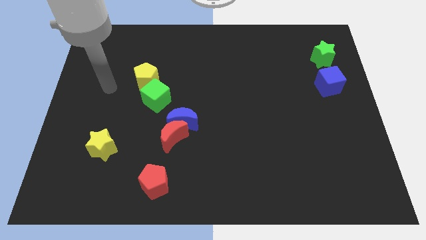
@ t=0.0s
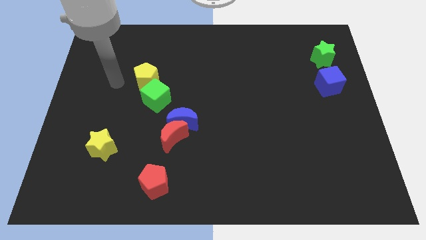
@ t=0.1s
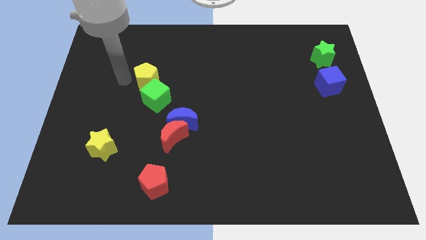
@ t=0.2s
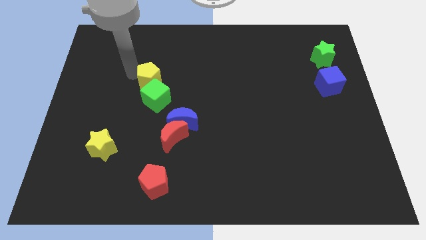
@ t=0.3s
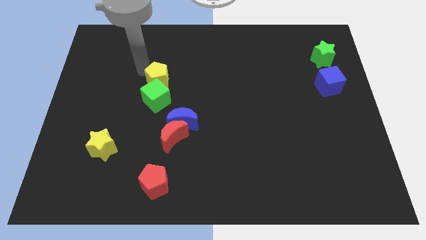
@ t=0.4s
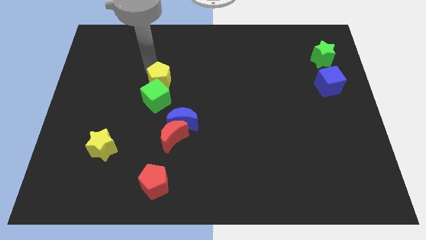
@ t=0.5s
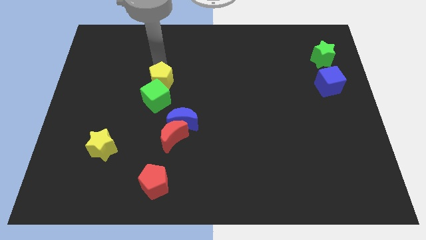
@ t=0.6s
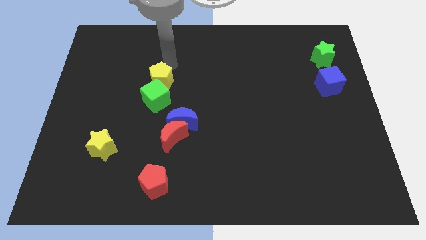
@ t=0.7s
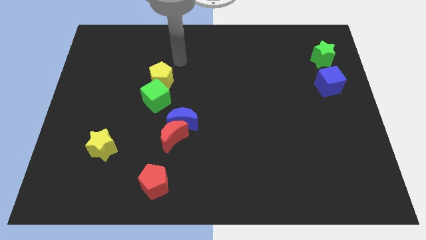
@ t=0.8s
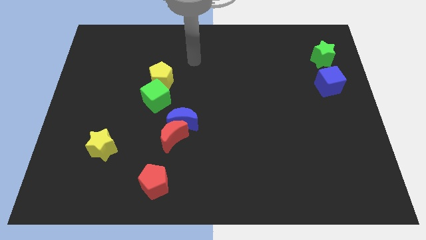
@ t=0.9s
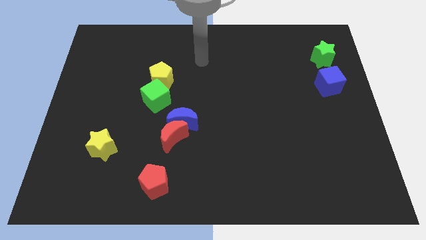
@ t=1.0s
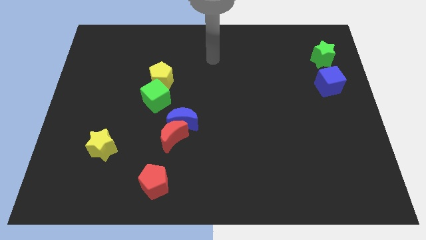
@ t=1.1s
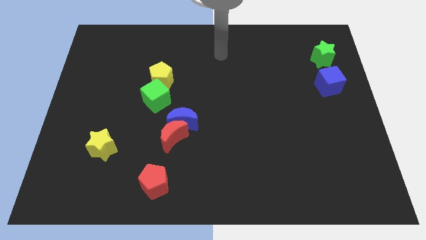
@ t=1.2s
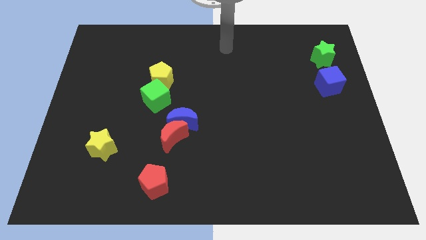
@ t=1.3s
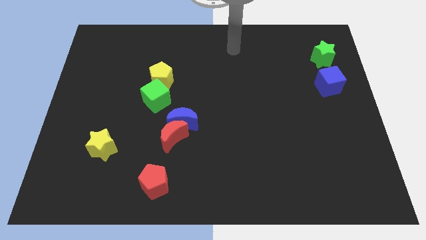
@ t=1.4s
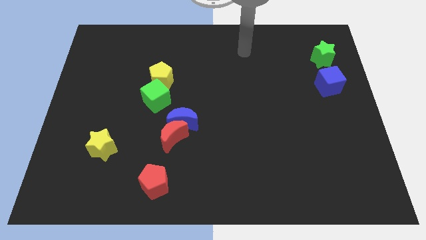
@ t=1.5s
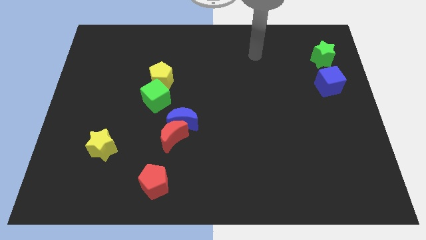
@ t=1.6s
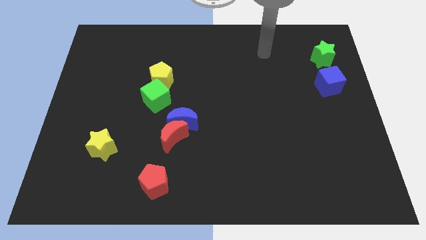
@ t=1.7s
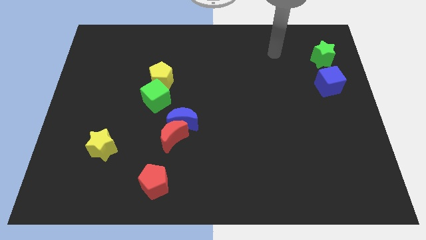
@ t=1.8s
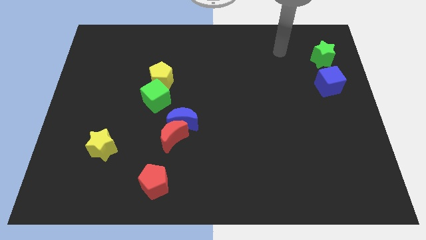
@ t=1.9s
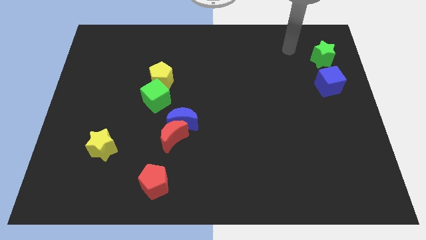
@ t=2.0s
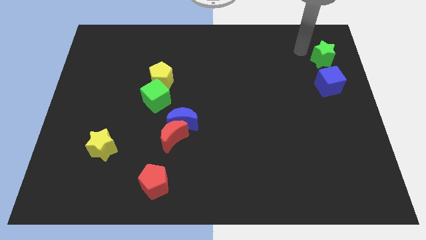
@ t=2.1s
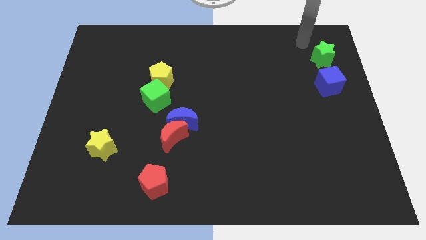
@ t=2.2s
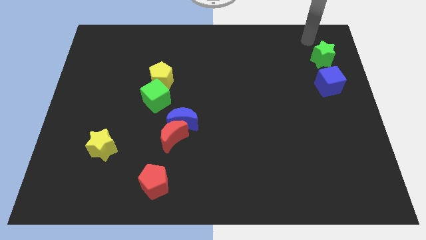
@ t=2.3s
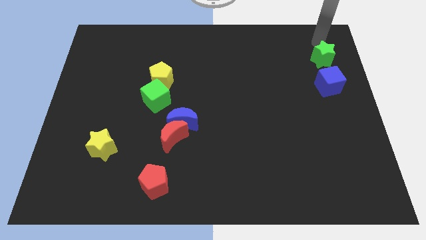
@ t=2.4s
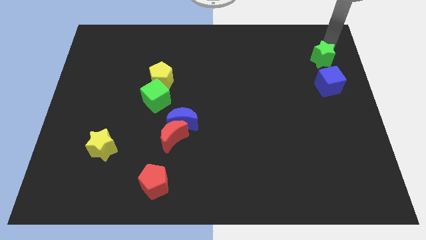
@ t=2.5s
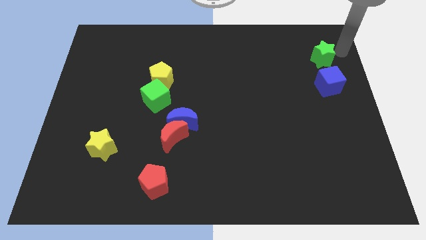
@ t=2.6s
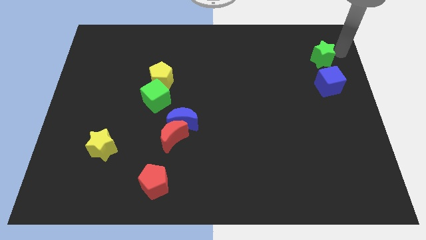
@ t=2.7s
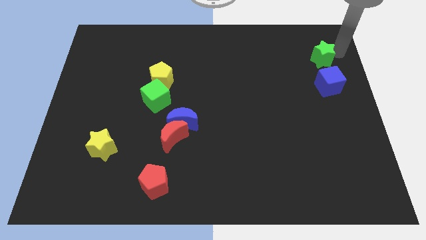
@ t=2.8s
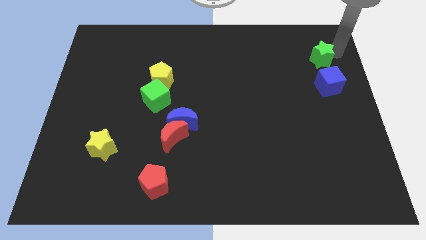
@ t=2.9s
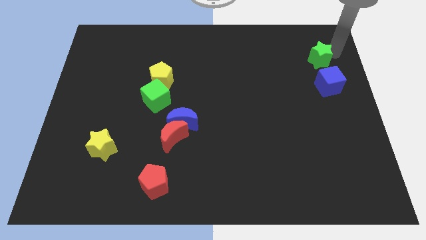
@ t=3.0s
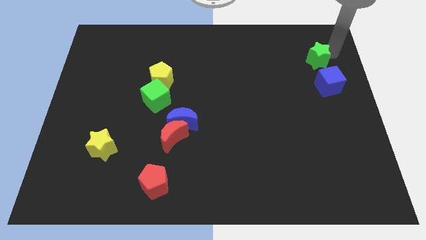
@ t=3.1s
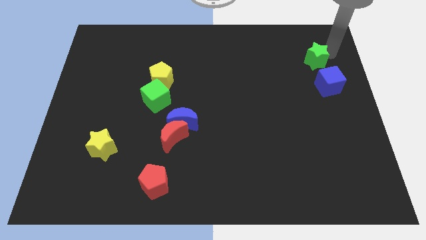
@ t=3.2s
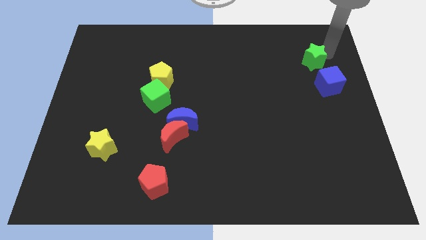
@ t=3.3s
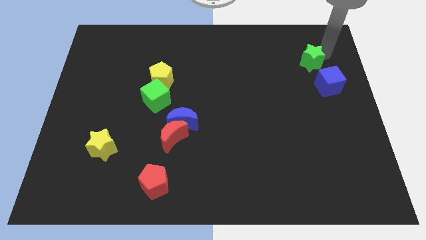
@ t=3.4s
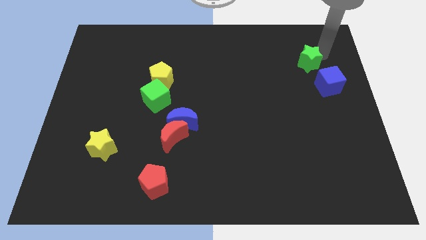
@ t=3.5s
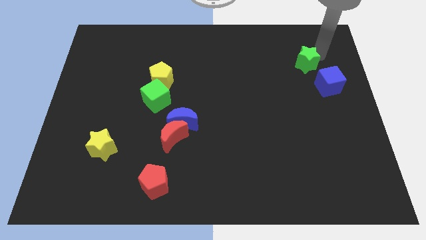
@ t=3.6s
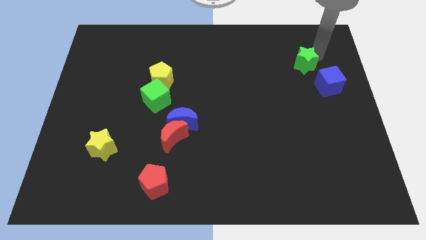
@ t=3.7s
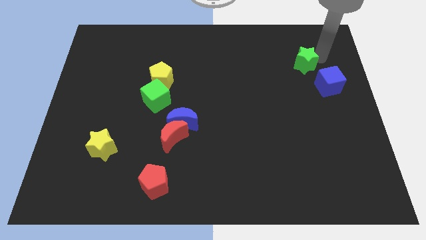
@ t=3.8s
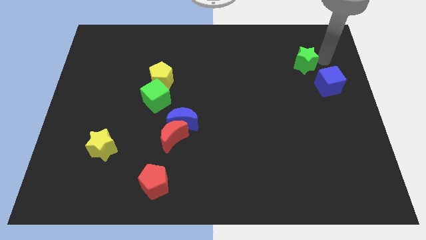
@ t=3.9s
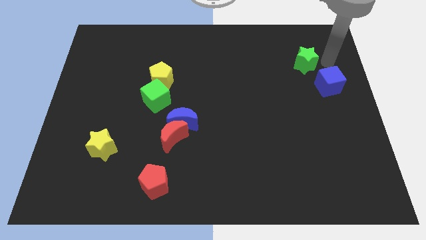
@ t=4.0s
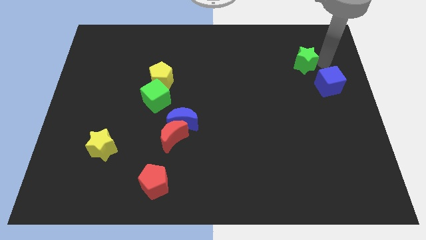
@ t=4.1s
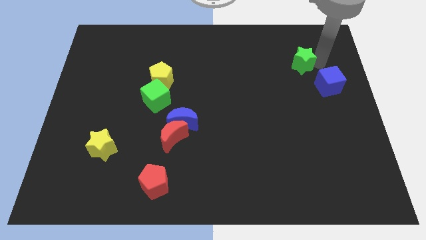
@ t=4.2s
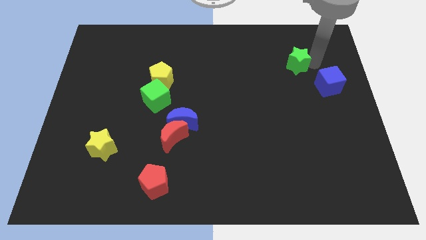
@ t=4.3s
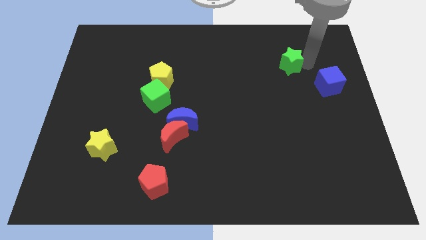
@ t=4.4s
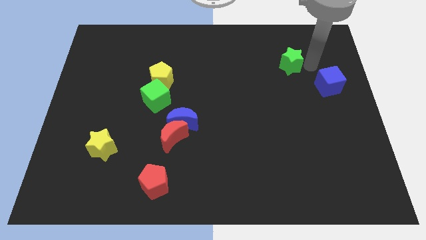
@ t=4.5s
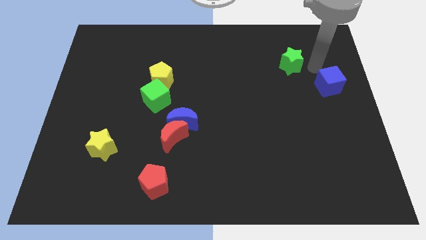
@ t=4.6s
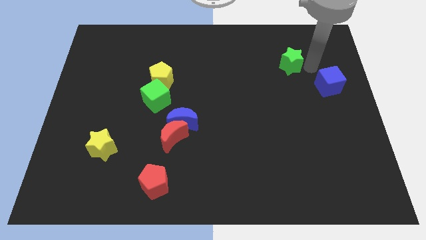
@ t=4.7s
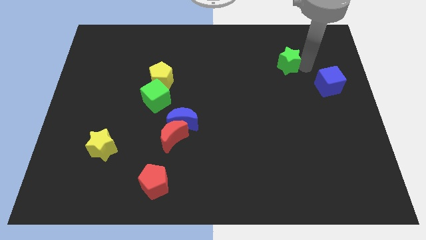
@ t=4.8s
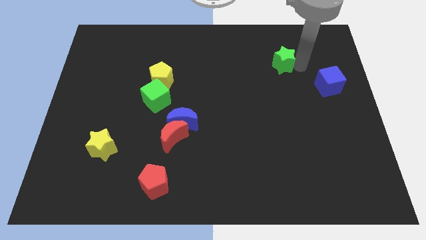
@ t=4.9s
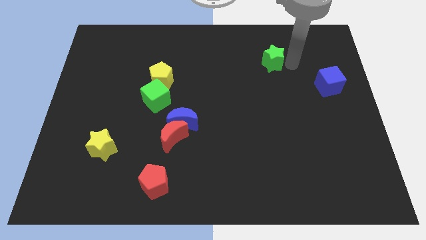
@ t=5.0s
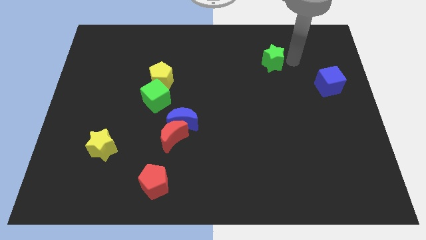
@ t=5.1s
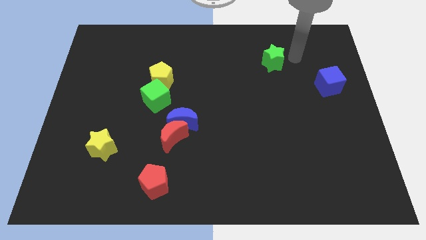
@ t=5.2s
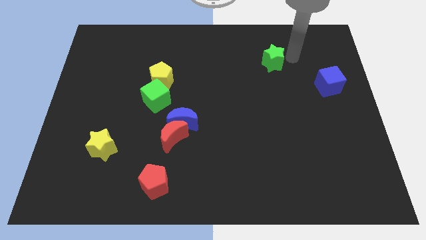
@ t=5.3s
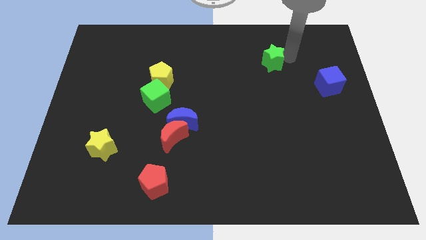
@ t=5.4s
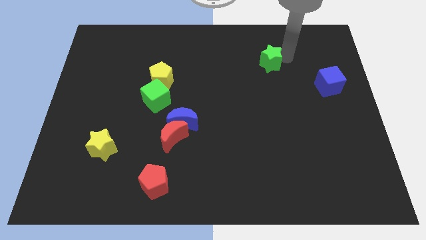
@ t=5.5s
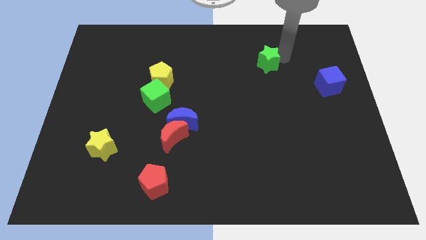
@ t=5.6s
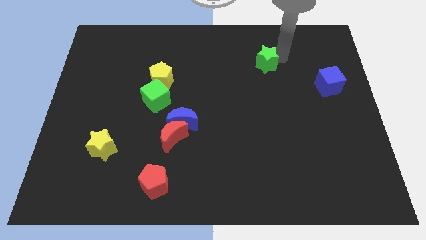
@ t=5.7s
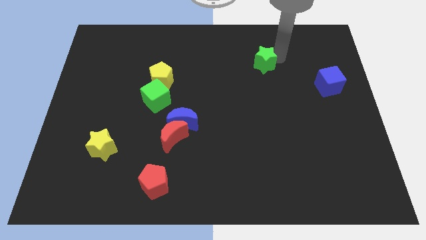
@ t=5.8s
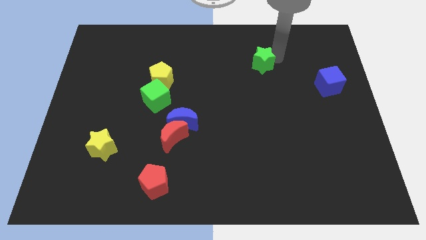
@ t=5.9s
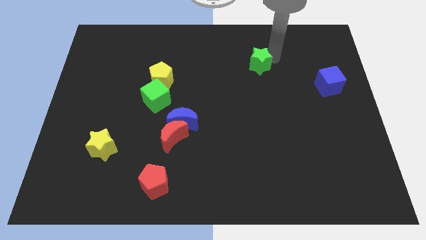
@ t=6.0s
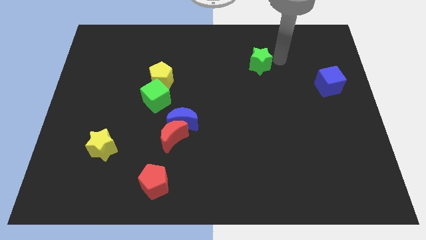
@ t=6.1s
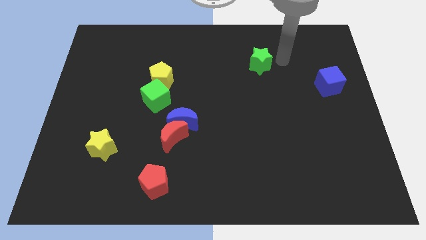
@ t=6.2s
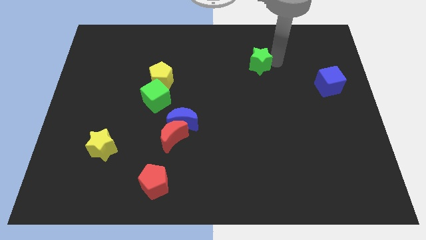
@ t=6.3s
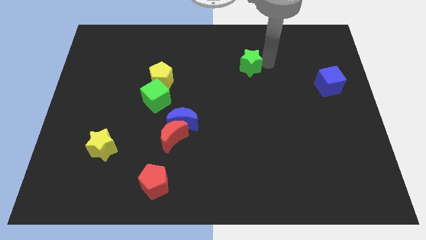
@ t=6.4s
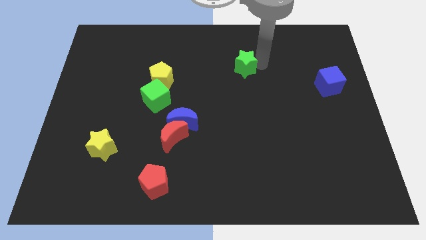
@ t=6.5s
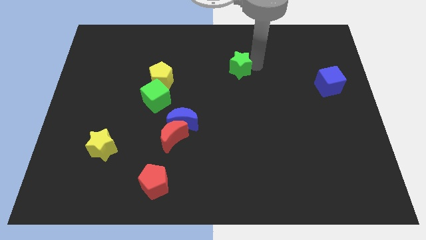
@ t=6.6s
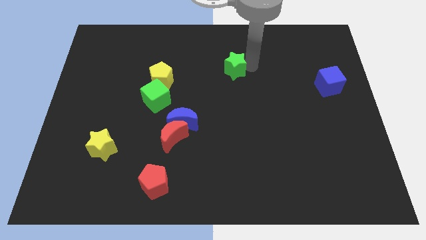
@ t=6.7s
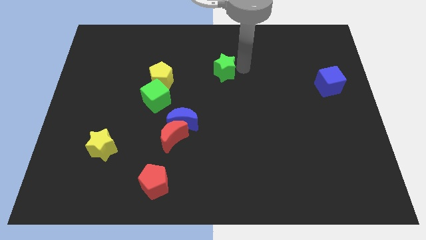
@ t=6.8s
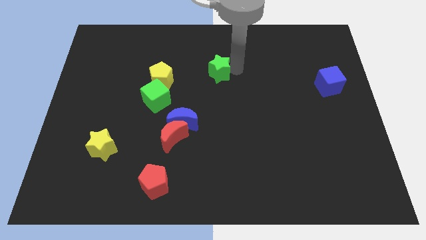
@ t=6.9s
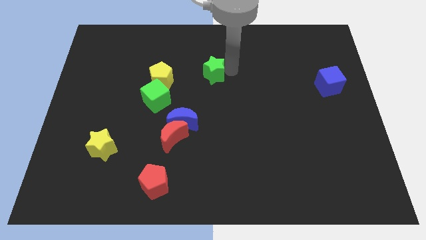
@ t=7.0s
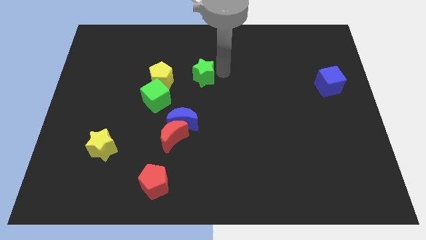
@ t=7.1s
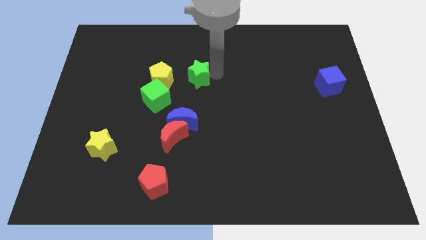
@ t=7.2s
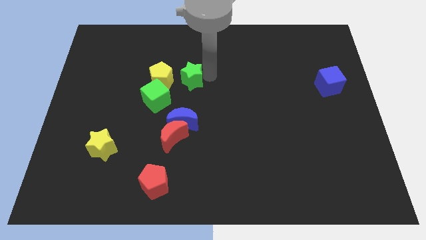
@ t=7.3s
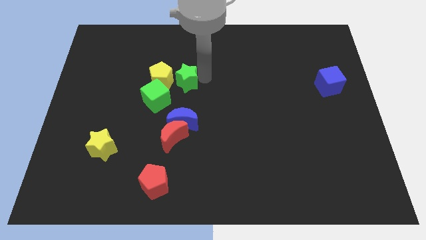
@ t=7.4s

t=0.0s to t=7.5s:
push the green star towards the yellow pentagon

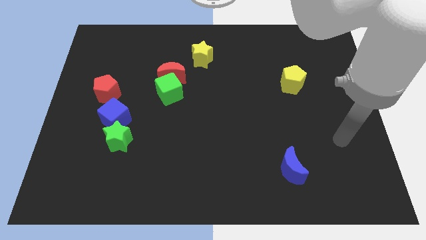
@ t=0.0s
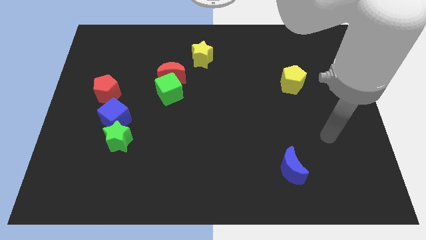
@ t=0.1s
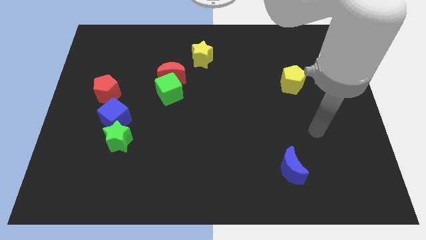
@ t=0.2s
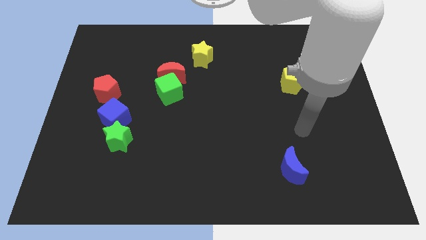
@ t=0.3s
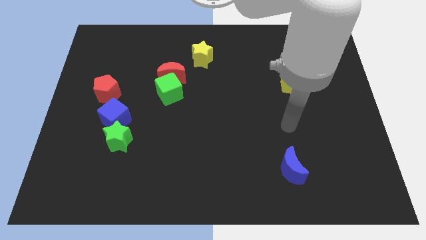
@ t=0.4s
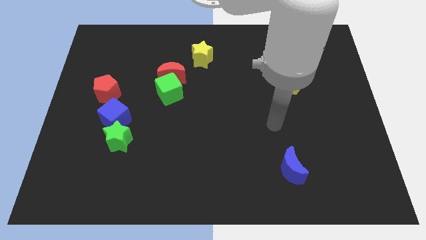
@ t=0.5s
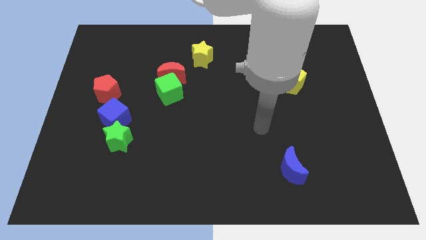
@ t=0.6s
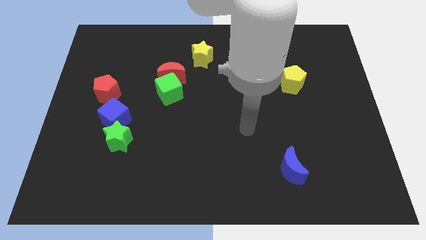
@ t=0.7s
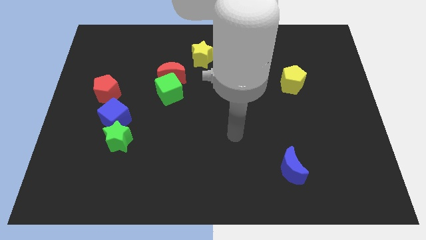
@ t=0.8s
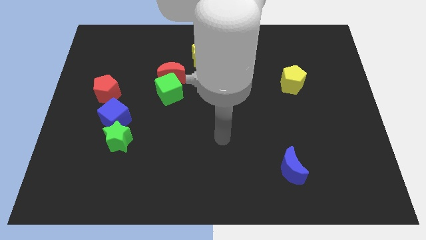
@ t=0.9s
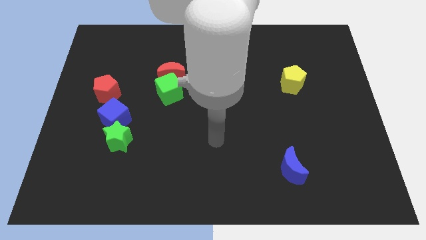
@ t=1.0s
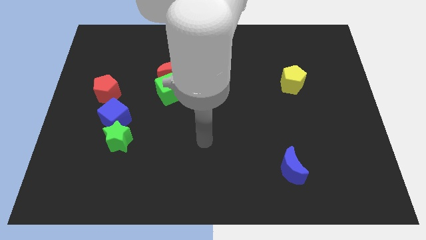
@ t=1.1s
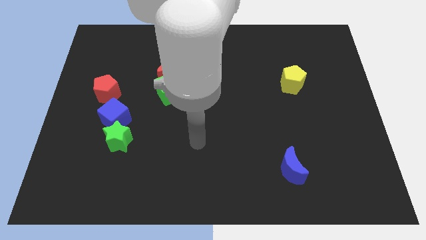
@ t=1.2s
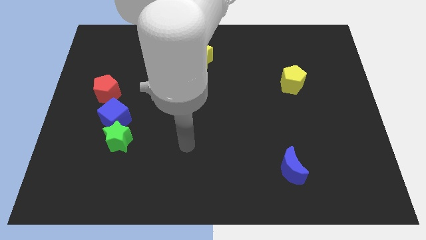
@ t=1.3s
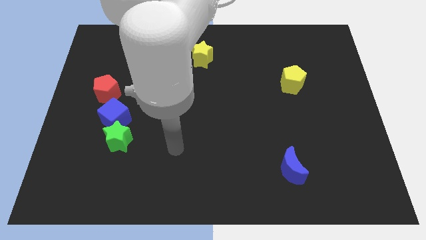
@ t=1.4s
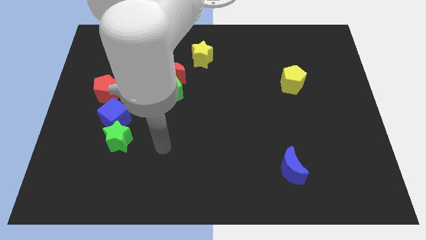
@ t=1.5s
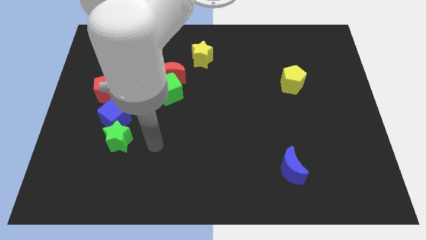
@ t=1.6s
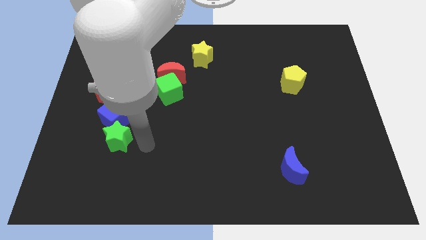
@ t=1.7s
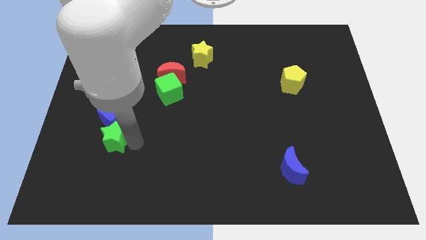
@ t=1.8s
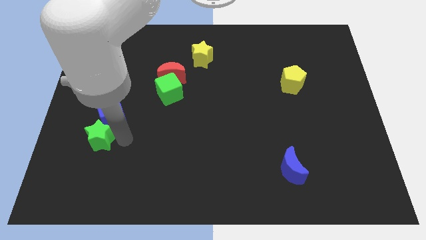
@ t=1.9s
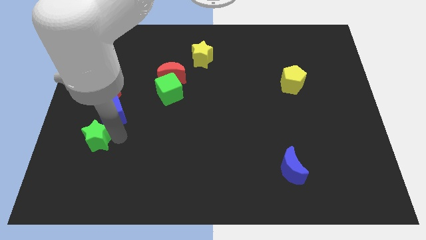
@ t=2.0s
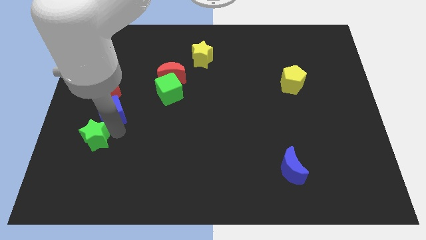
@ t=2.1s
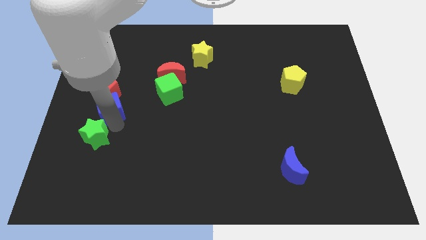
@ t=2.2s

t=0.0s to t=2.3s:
move the blue cube to the red pentagon
